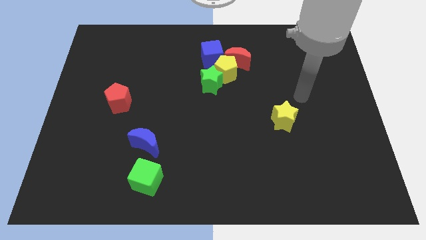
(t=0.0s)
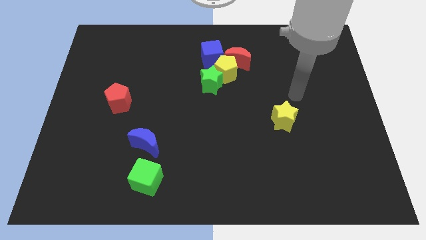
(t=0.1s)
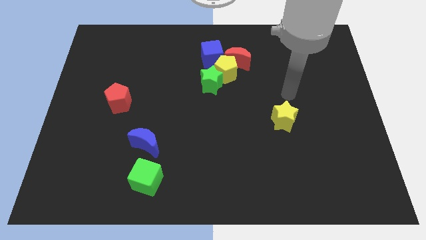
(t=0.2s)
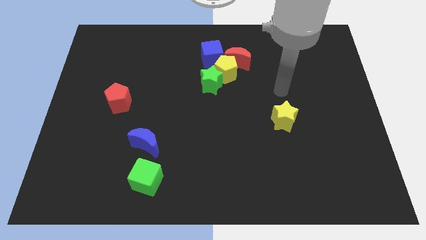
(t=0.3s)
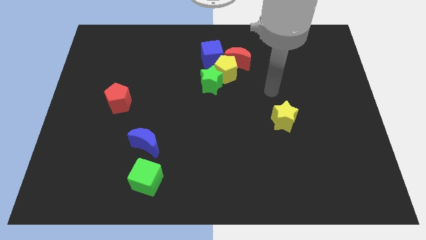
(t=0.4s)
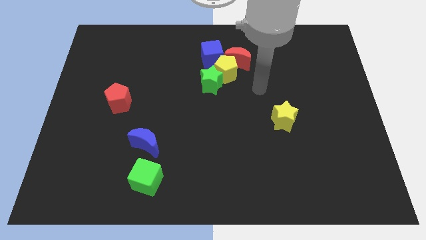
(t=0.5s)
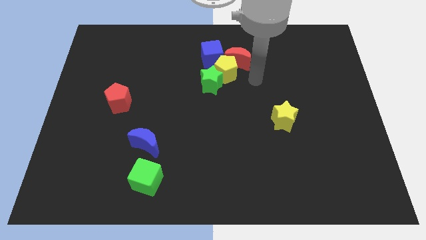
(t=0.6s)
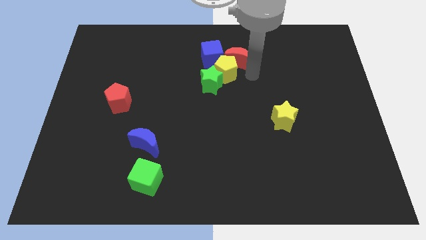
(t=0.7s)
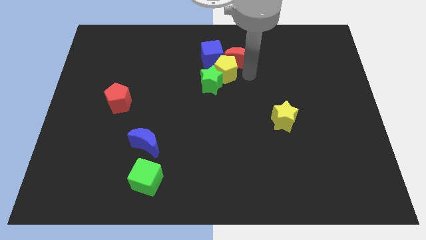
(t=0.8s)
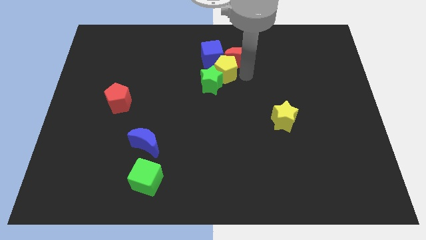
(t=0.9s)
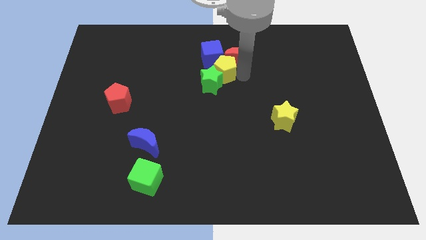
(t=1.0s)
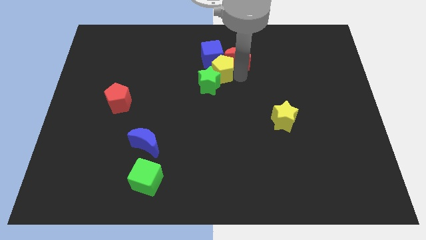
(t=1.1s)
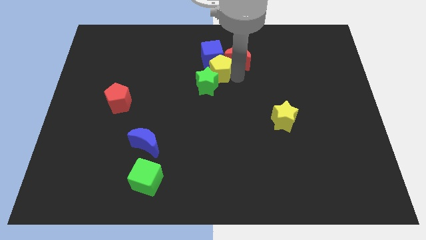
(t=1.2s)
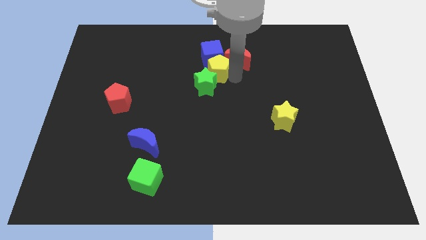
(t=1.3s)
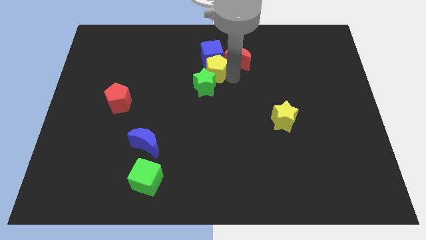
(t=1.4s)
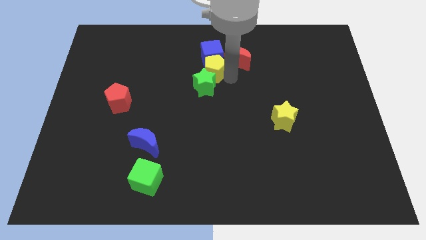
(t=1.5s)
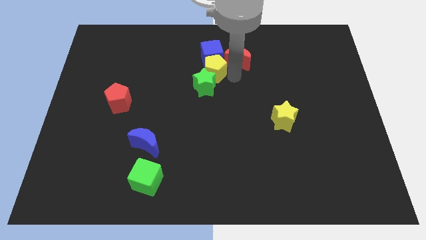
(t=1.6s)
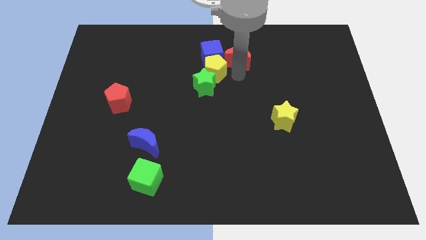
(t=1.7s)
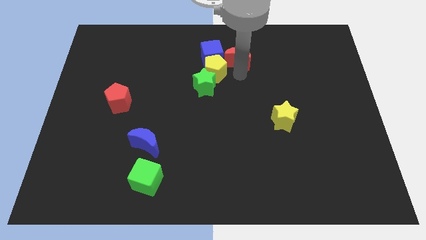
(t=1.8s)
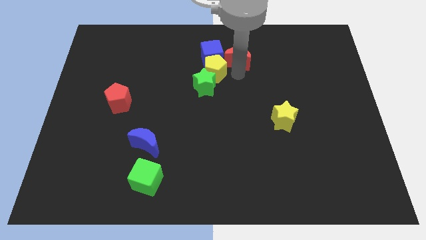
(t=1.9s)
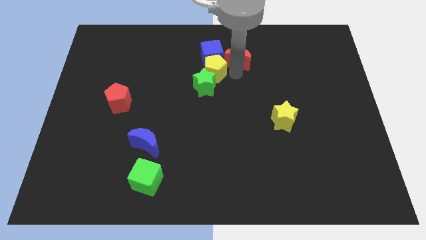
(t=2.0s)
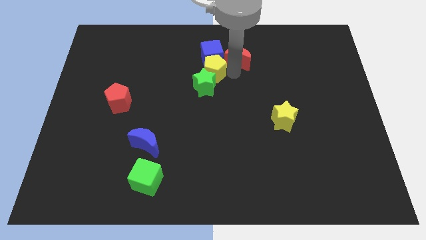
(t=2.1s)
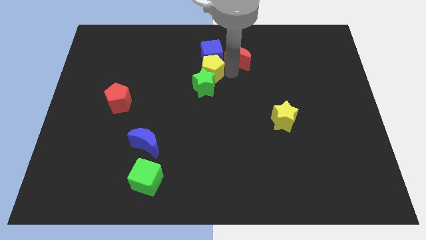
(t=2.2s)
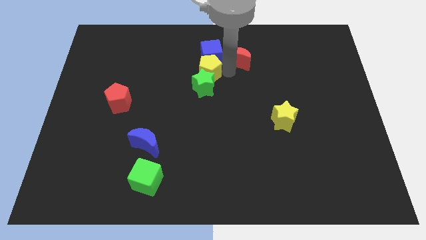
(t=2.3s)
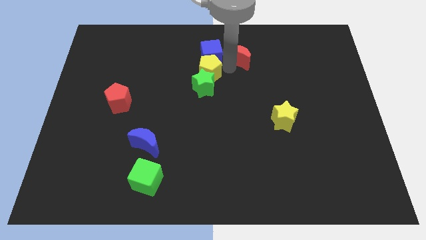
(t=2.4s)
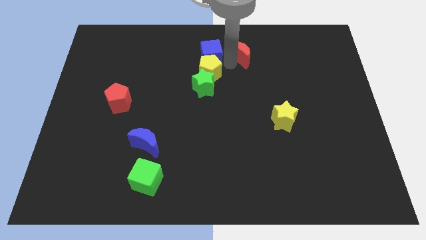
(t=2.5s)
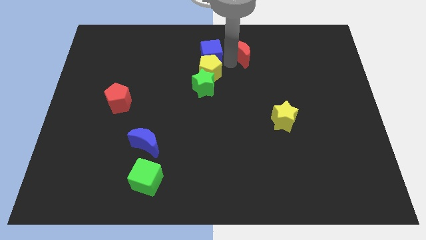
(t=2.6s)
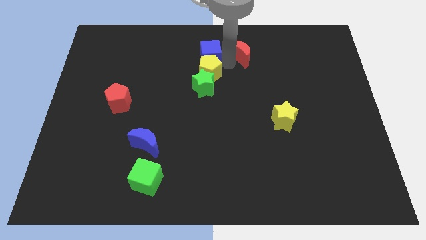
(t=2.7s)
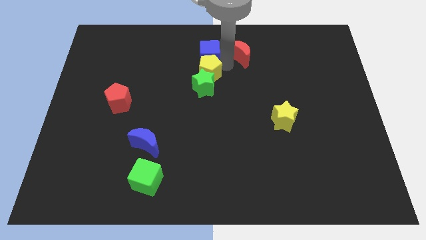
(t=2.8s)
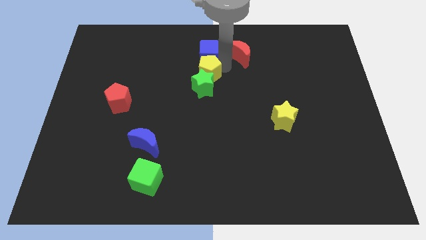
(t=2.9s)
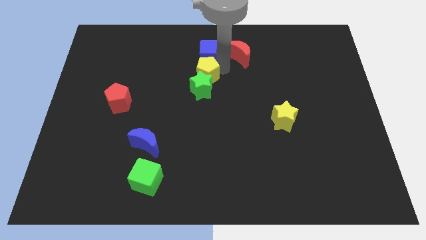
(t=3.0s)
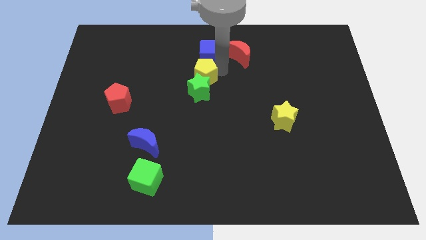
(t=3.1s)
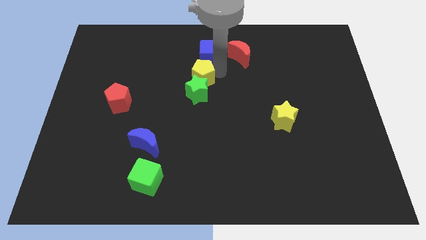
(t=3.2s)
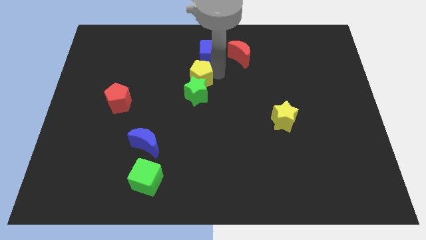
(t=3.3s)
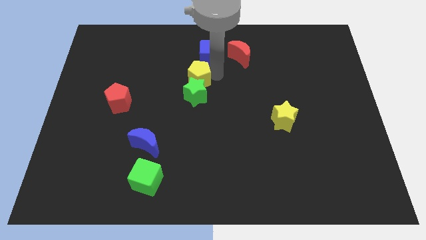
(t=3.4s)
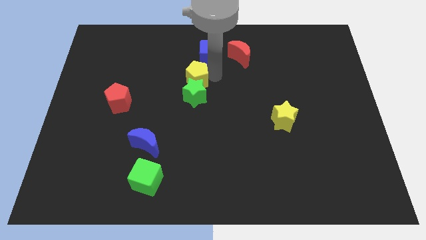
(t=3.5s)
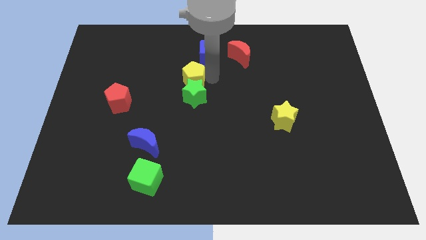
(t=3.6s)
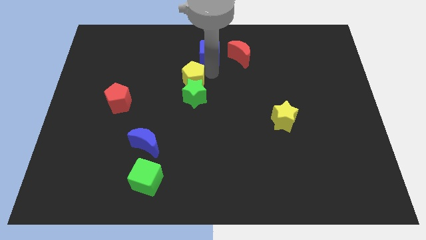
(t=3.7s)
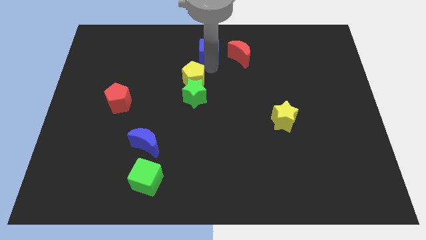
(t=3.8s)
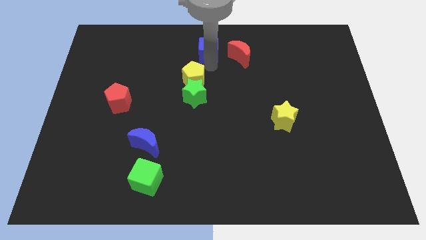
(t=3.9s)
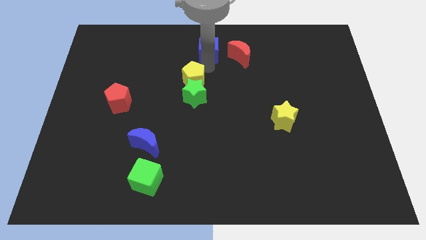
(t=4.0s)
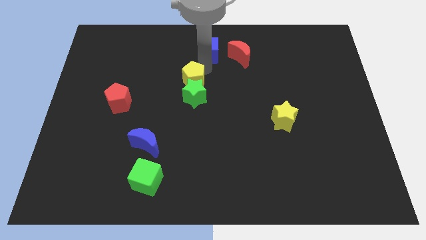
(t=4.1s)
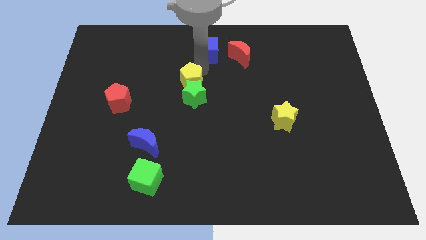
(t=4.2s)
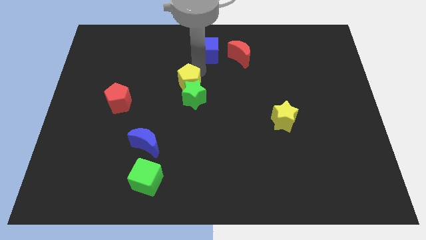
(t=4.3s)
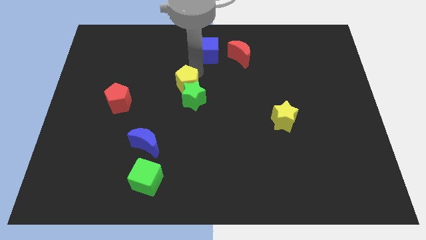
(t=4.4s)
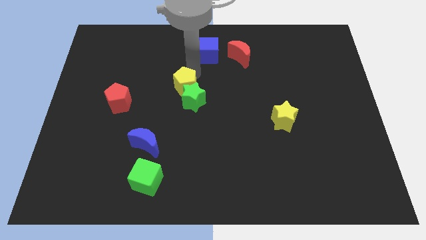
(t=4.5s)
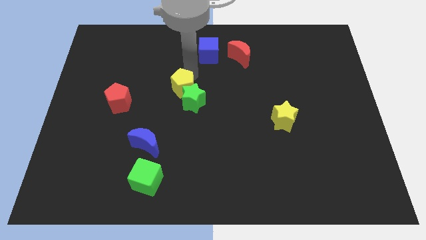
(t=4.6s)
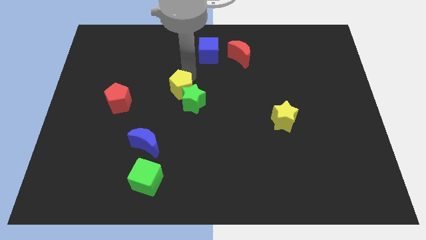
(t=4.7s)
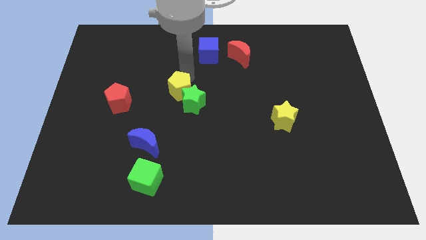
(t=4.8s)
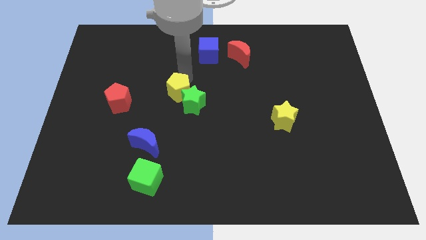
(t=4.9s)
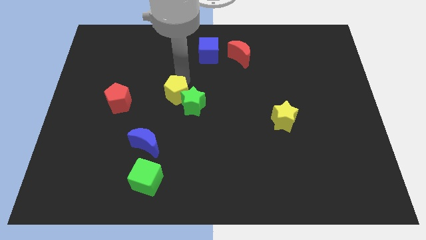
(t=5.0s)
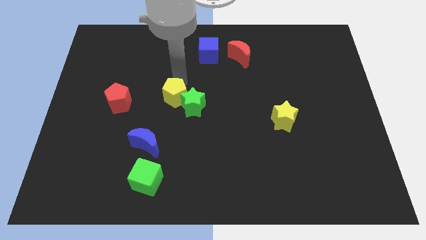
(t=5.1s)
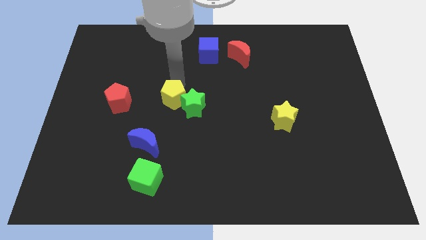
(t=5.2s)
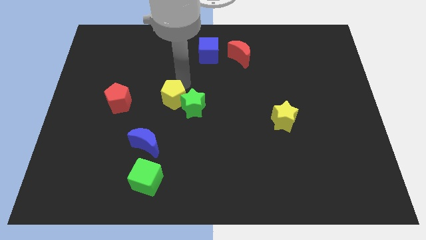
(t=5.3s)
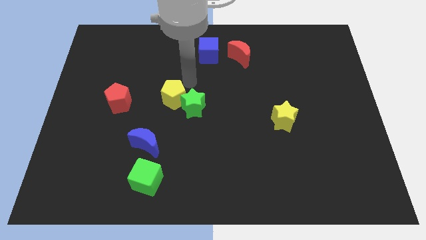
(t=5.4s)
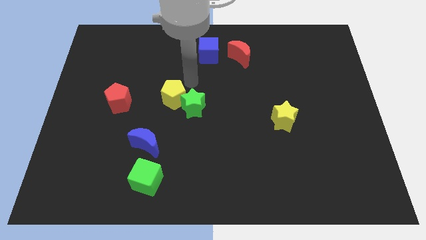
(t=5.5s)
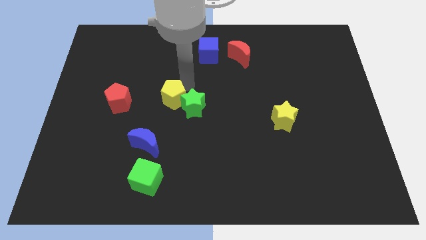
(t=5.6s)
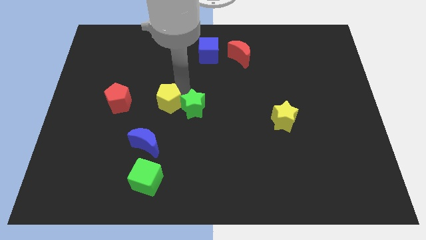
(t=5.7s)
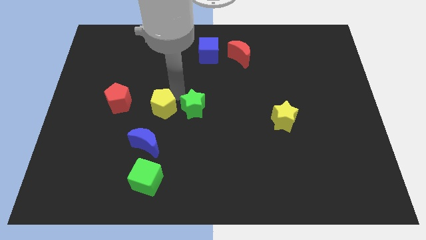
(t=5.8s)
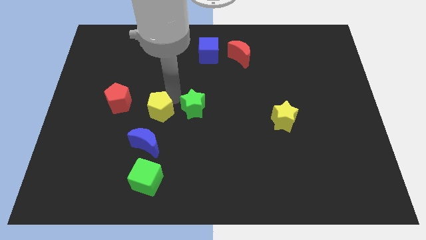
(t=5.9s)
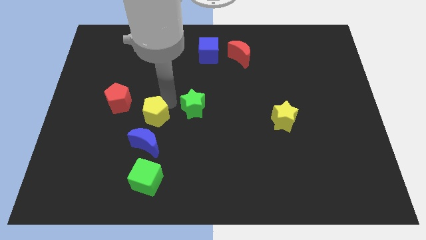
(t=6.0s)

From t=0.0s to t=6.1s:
push the yellow pentagon down and left

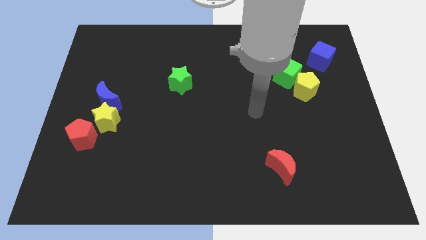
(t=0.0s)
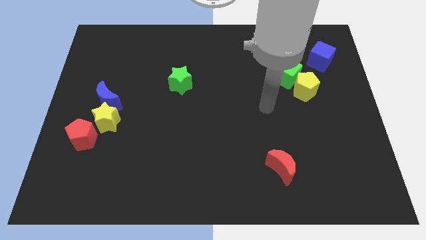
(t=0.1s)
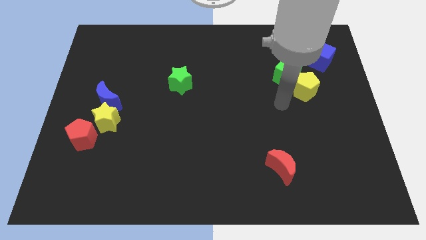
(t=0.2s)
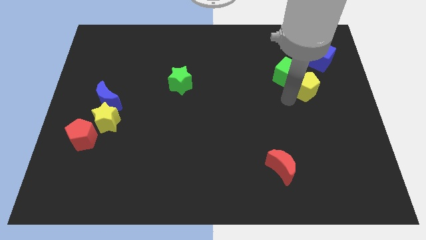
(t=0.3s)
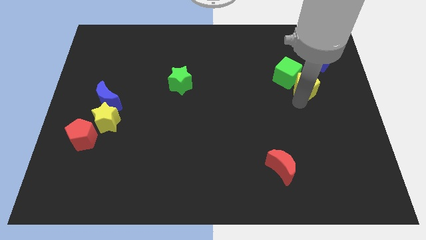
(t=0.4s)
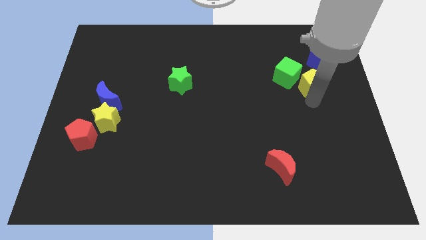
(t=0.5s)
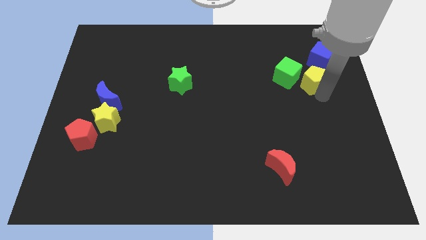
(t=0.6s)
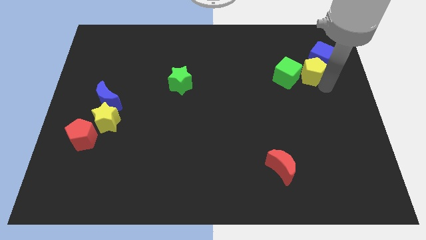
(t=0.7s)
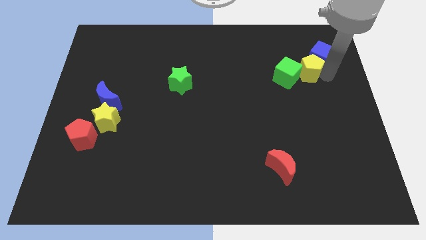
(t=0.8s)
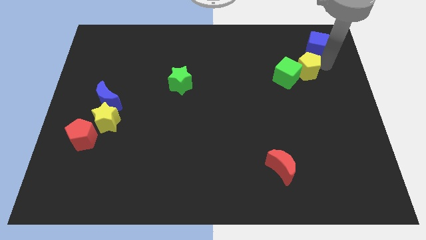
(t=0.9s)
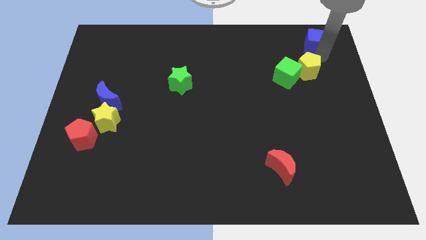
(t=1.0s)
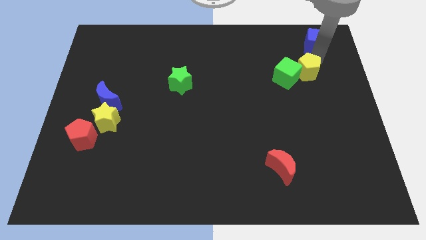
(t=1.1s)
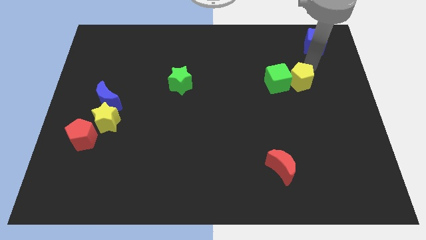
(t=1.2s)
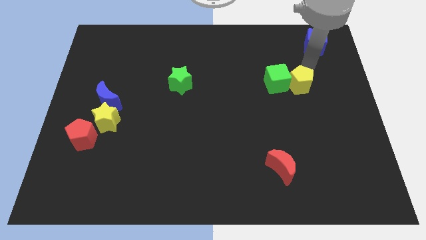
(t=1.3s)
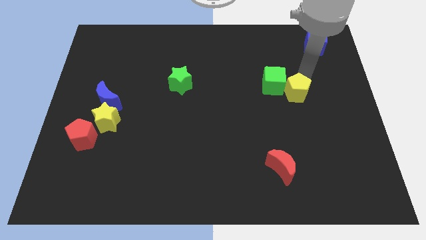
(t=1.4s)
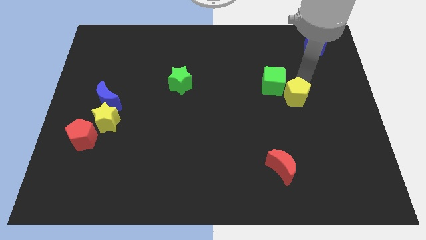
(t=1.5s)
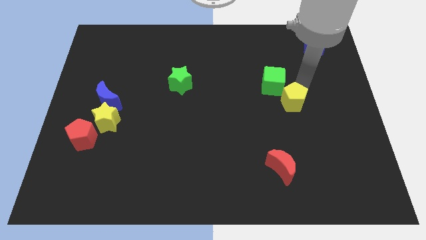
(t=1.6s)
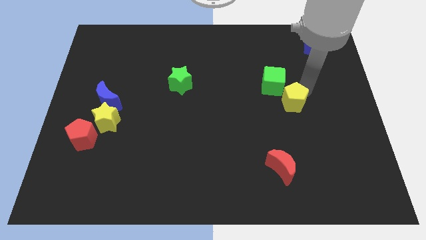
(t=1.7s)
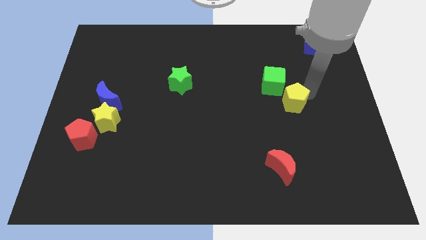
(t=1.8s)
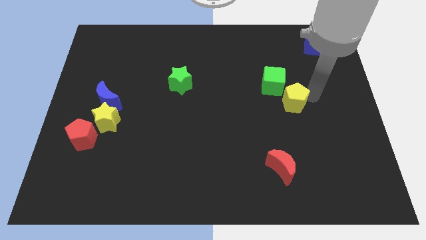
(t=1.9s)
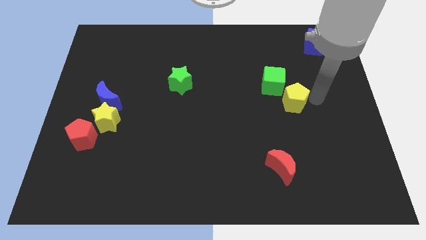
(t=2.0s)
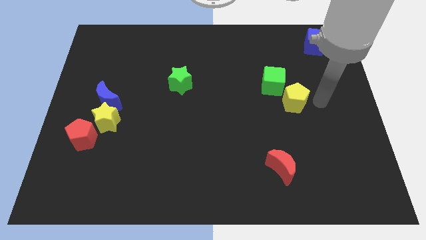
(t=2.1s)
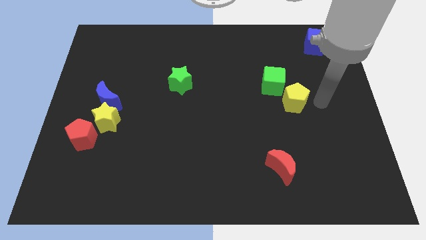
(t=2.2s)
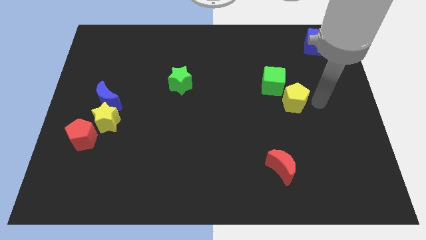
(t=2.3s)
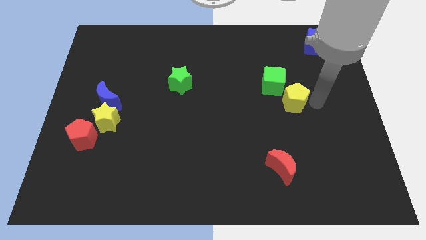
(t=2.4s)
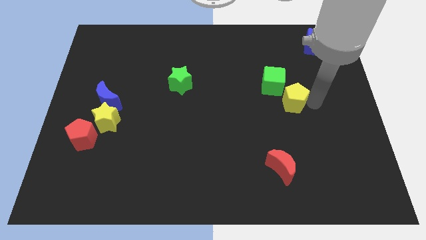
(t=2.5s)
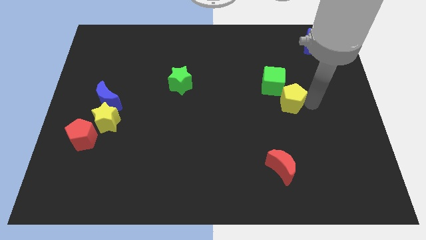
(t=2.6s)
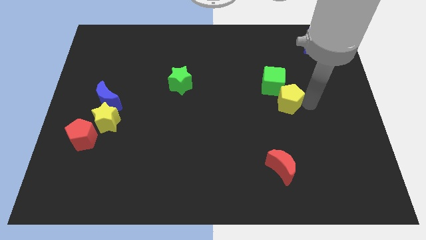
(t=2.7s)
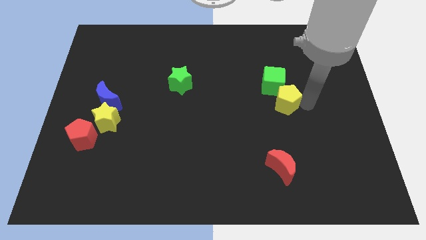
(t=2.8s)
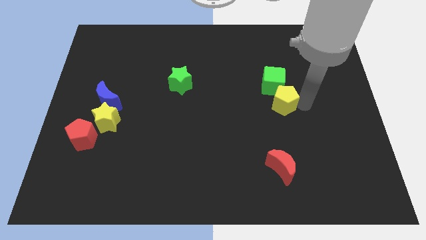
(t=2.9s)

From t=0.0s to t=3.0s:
slide the yellow pentagon a little bit down and left diagonally
